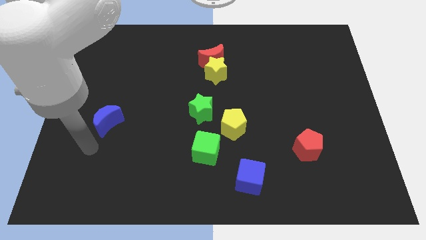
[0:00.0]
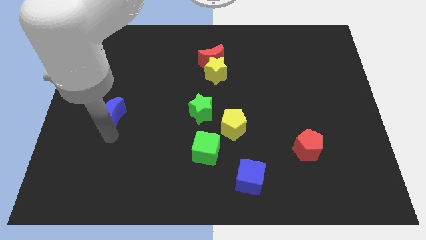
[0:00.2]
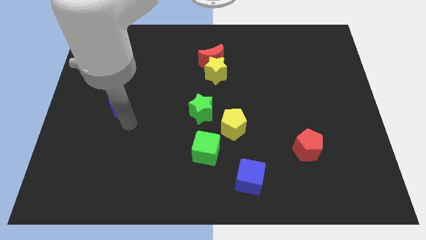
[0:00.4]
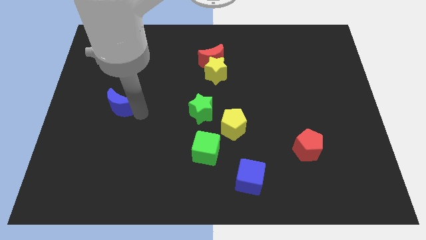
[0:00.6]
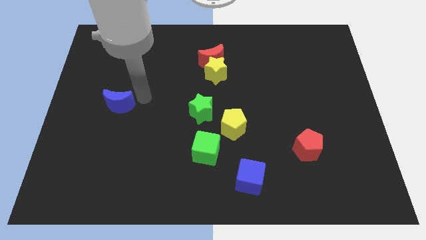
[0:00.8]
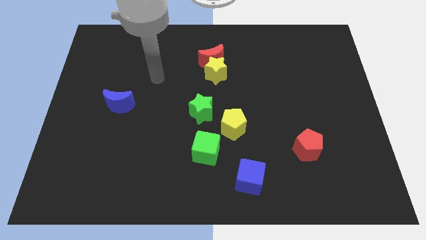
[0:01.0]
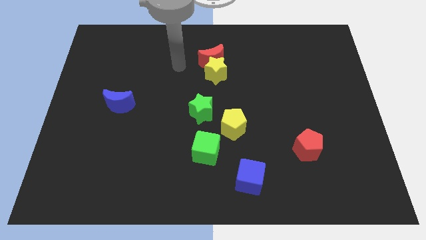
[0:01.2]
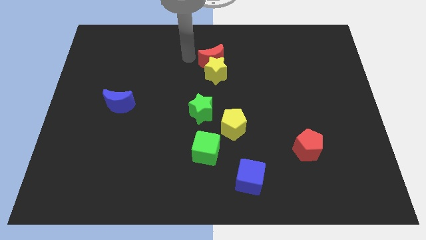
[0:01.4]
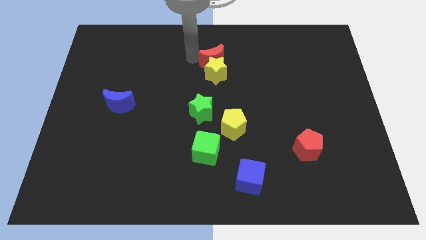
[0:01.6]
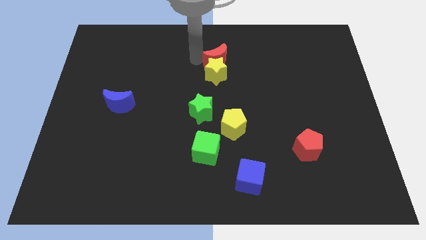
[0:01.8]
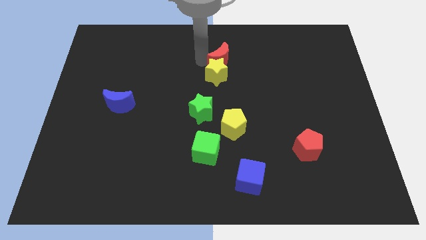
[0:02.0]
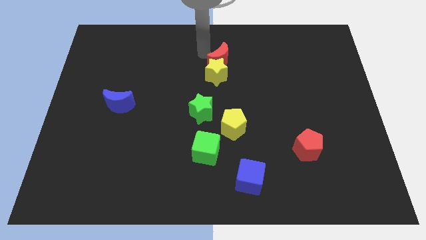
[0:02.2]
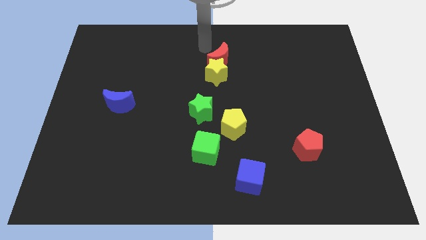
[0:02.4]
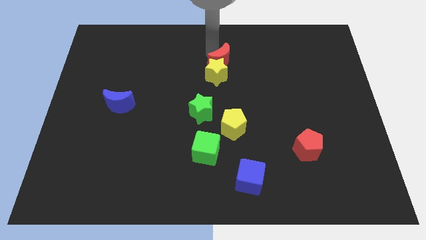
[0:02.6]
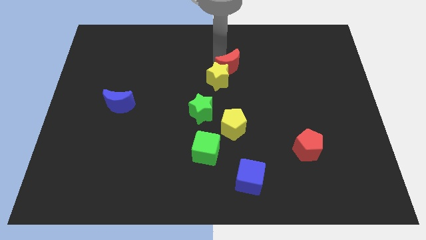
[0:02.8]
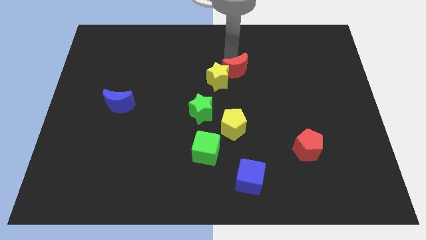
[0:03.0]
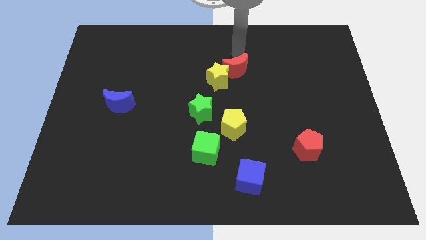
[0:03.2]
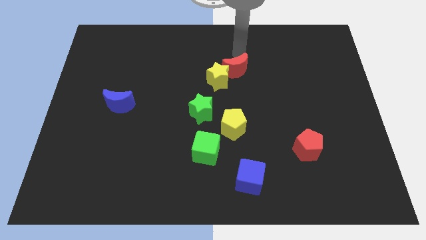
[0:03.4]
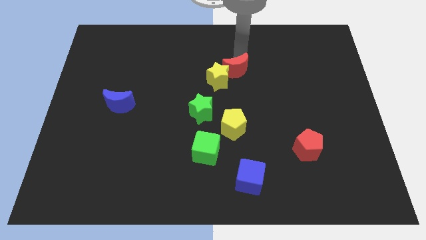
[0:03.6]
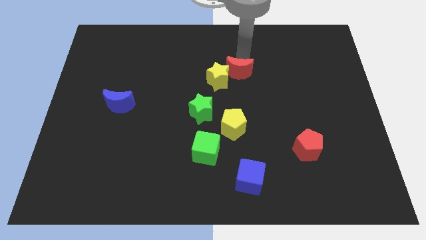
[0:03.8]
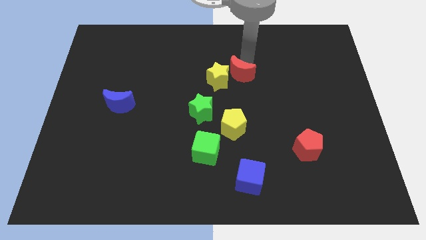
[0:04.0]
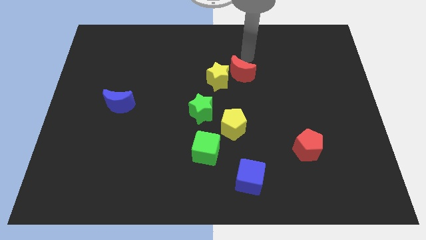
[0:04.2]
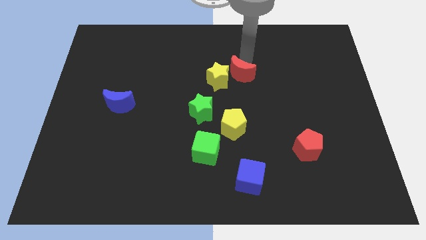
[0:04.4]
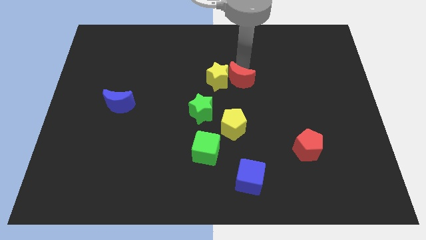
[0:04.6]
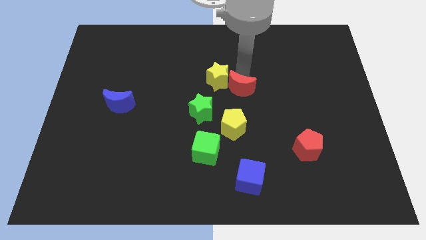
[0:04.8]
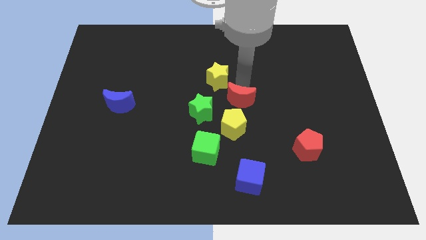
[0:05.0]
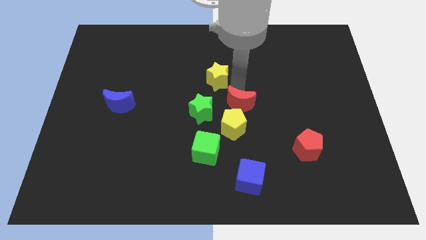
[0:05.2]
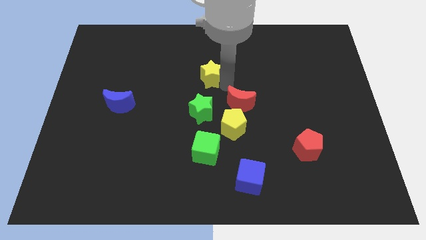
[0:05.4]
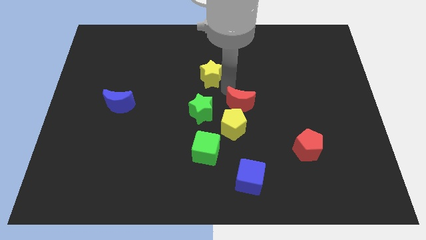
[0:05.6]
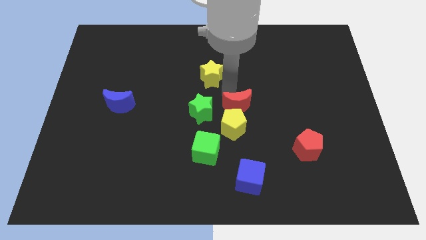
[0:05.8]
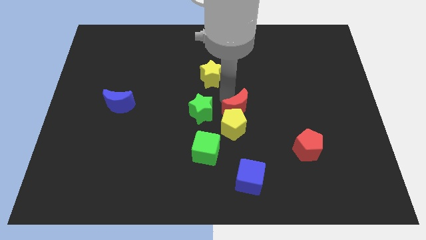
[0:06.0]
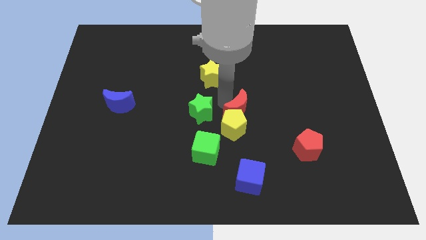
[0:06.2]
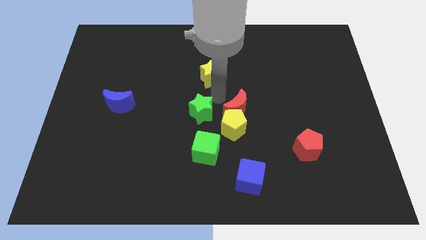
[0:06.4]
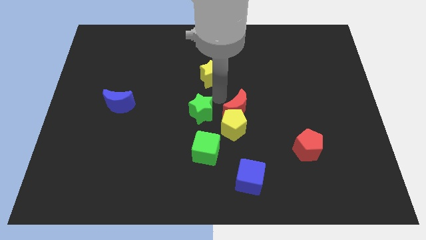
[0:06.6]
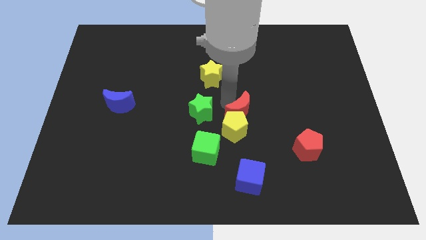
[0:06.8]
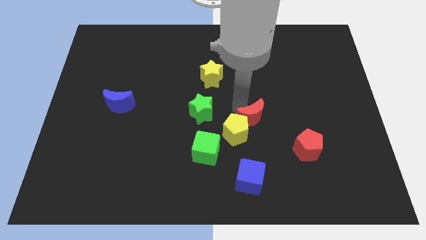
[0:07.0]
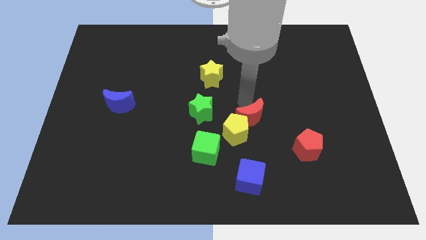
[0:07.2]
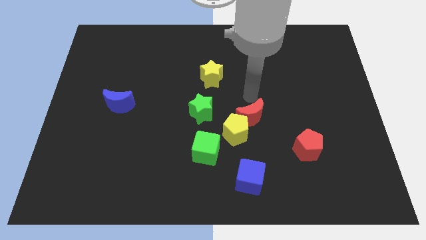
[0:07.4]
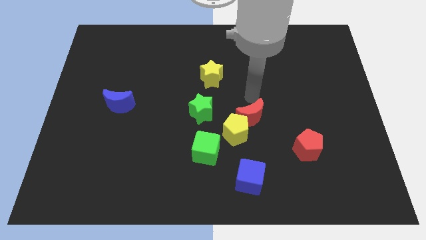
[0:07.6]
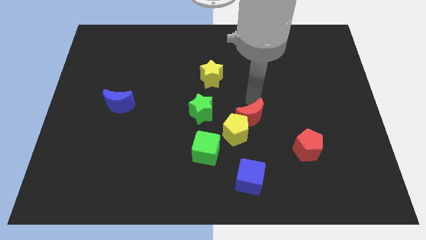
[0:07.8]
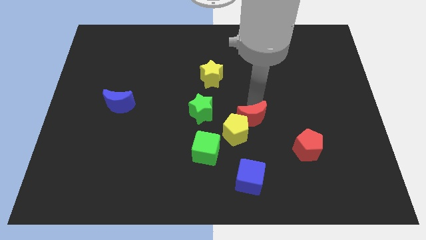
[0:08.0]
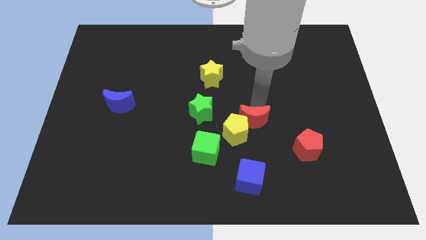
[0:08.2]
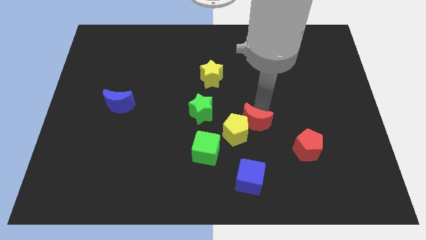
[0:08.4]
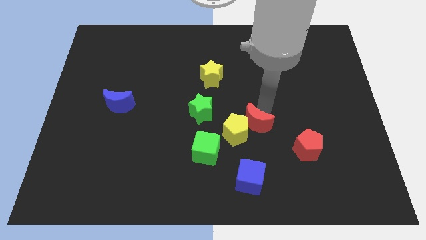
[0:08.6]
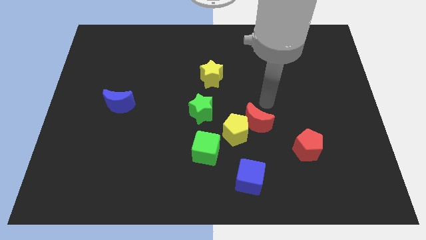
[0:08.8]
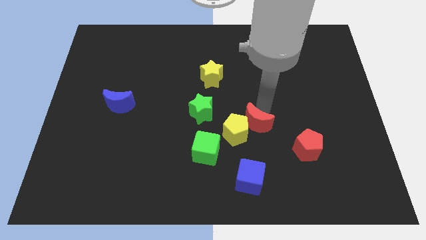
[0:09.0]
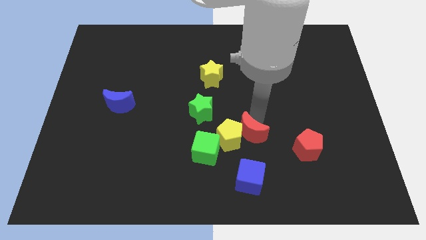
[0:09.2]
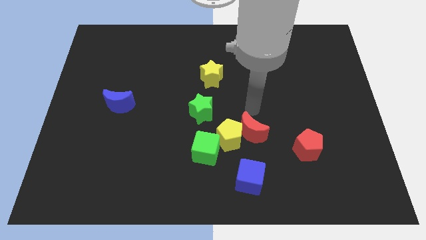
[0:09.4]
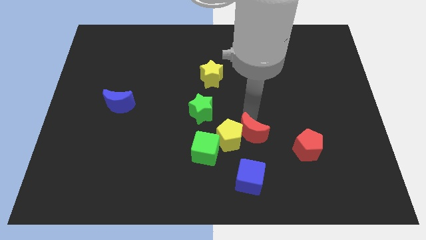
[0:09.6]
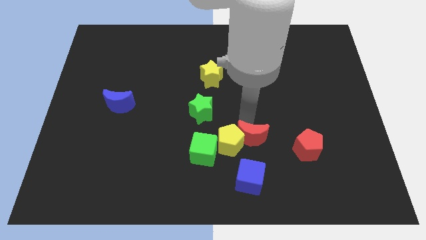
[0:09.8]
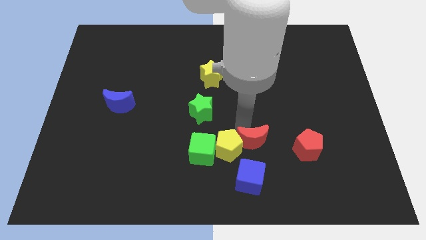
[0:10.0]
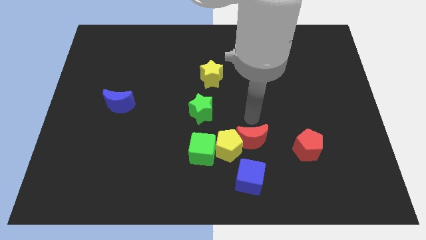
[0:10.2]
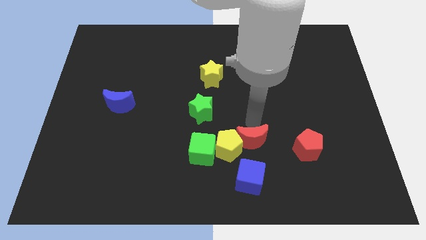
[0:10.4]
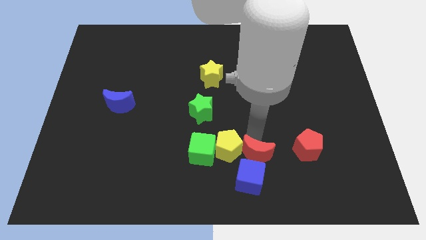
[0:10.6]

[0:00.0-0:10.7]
put the red moon next to the blue cube

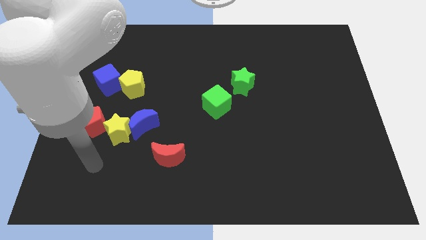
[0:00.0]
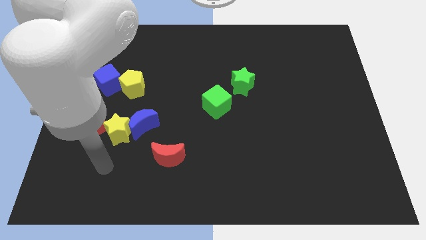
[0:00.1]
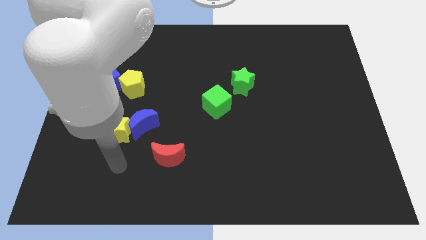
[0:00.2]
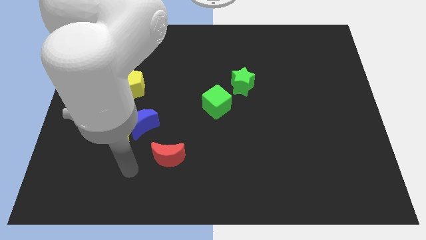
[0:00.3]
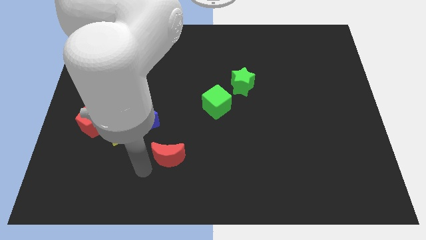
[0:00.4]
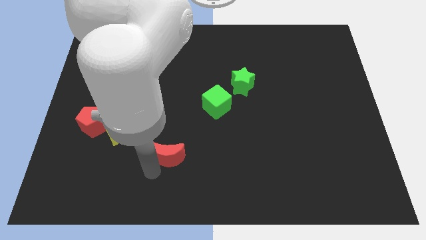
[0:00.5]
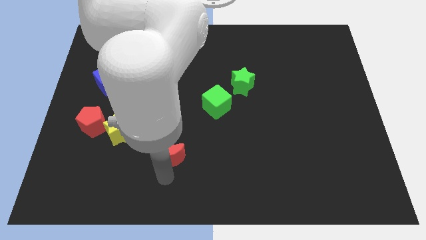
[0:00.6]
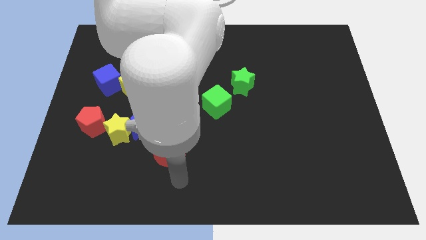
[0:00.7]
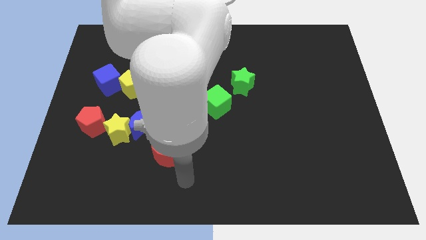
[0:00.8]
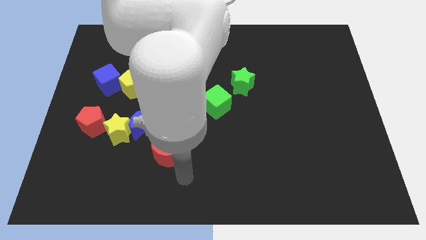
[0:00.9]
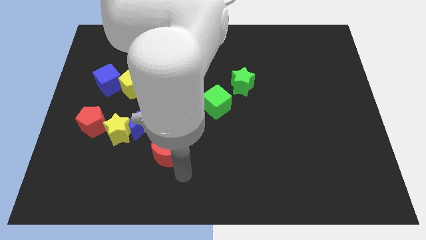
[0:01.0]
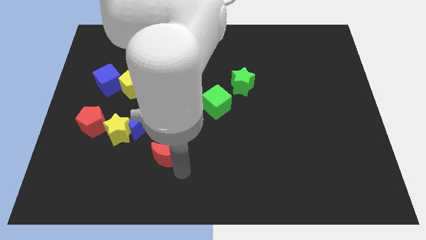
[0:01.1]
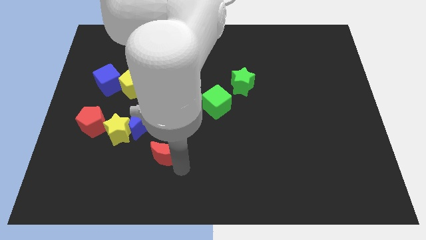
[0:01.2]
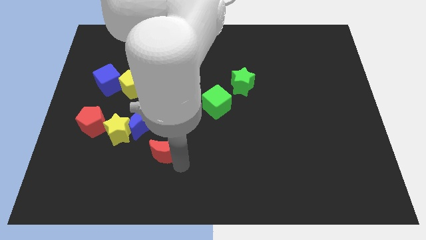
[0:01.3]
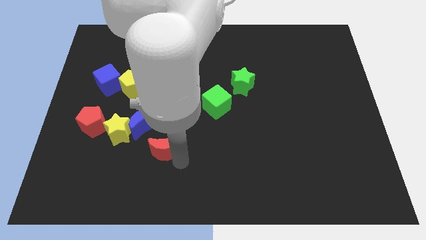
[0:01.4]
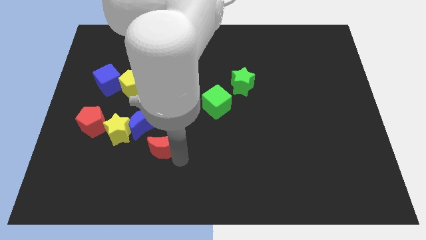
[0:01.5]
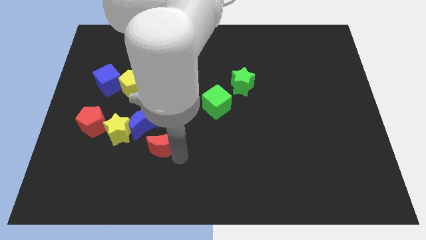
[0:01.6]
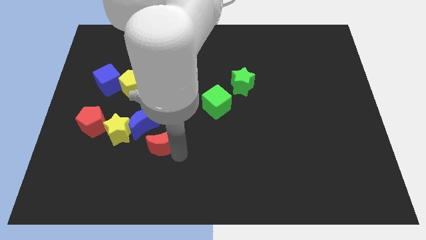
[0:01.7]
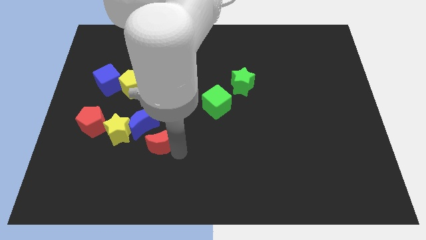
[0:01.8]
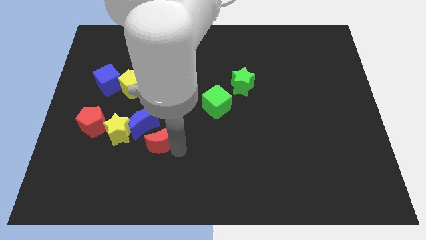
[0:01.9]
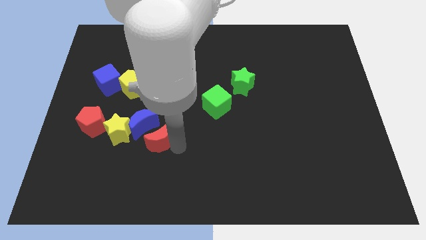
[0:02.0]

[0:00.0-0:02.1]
slide the red moon towards the blue moon
